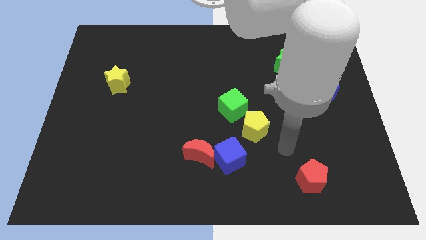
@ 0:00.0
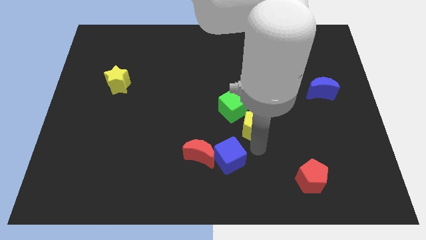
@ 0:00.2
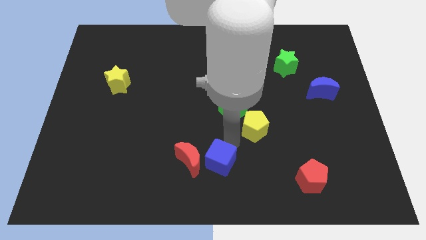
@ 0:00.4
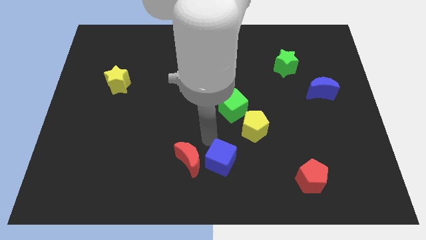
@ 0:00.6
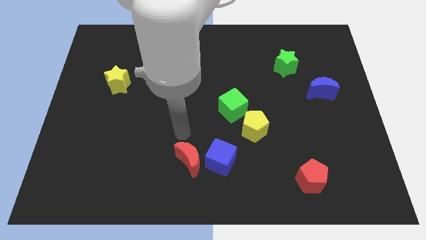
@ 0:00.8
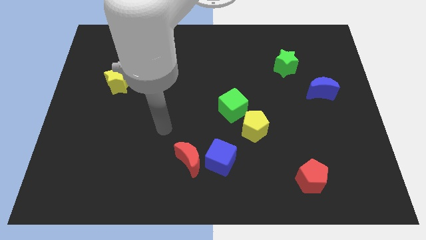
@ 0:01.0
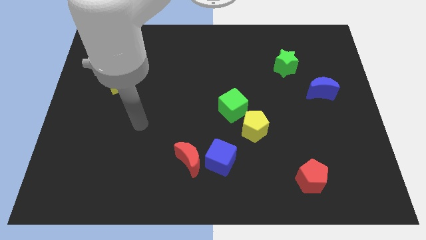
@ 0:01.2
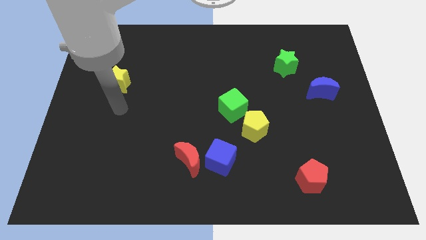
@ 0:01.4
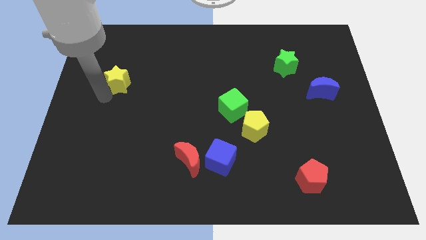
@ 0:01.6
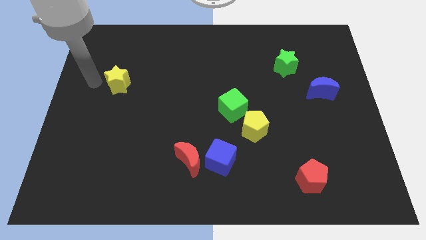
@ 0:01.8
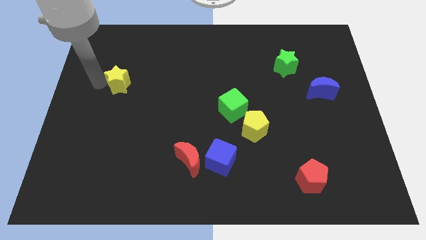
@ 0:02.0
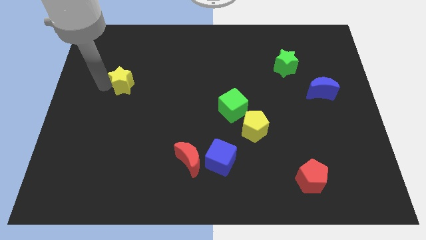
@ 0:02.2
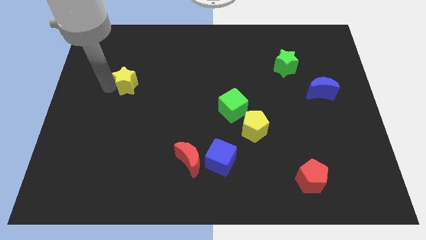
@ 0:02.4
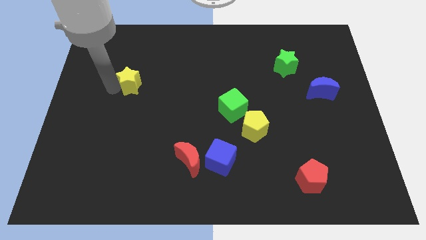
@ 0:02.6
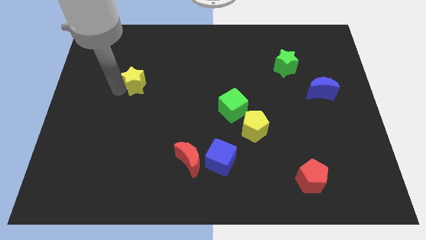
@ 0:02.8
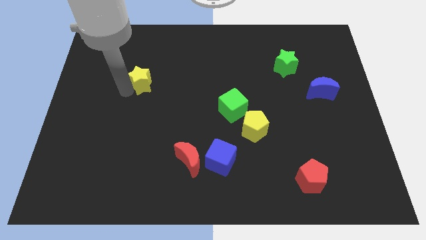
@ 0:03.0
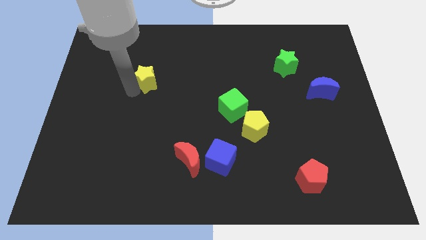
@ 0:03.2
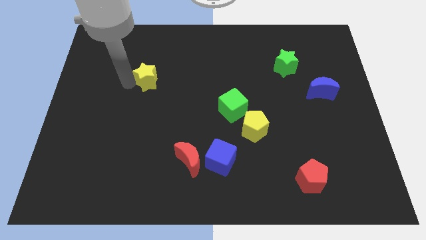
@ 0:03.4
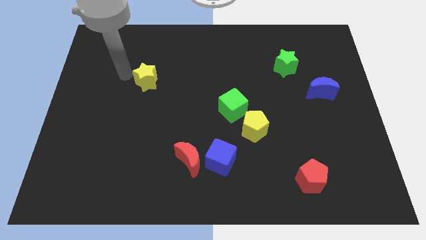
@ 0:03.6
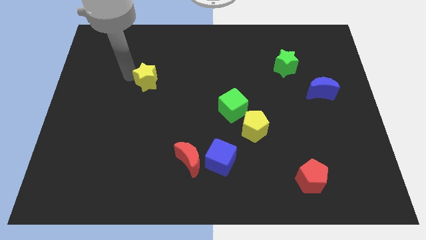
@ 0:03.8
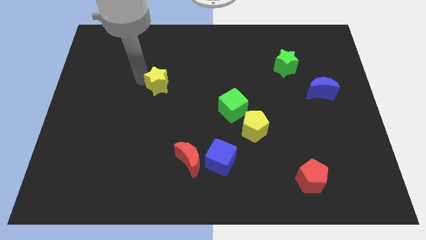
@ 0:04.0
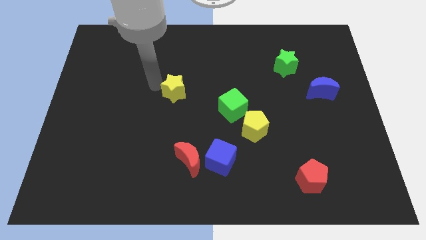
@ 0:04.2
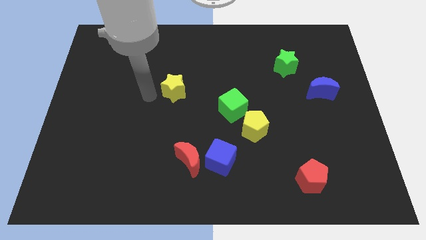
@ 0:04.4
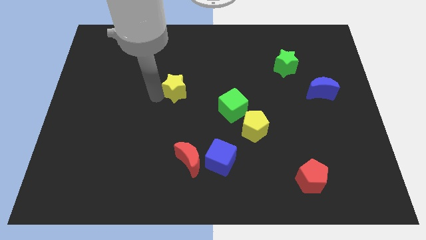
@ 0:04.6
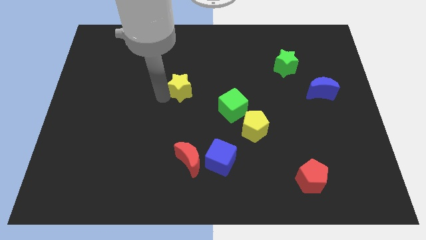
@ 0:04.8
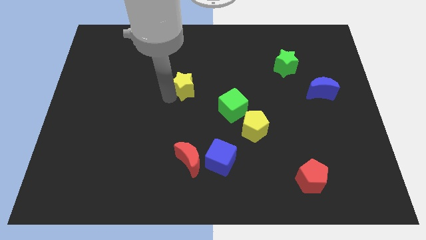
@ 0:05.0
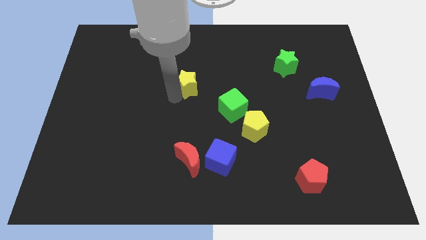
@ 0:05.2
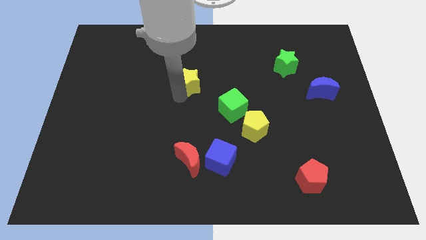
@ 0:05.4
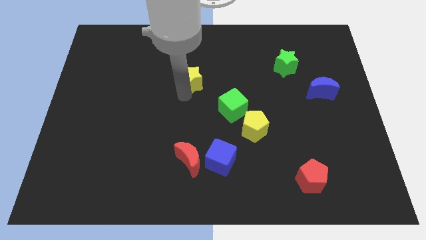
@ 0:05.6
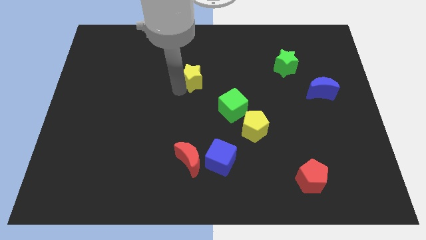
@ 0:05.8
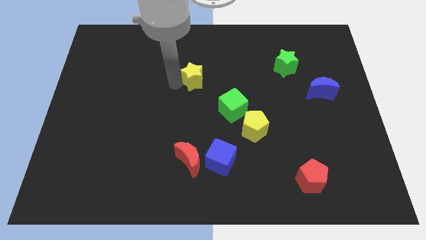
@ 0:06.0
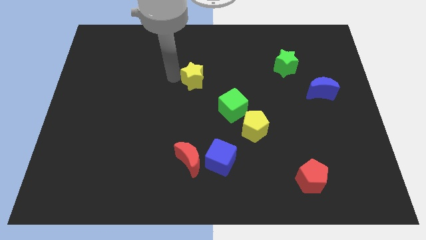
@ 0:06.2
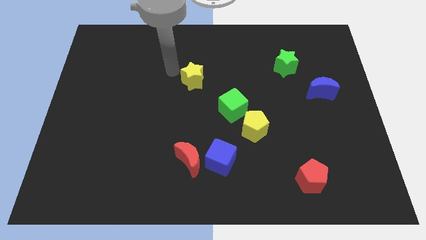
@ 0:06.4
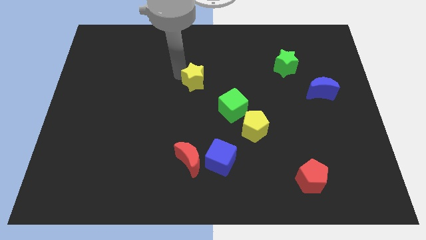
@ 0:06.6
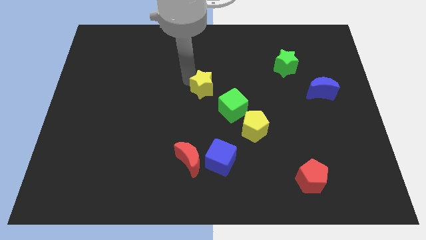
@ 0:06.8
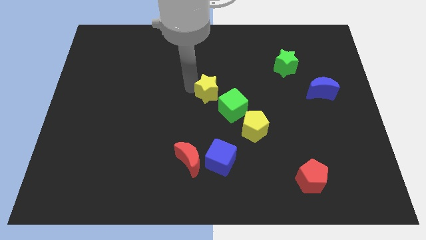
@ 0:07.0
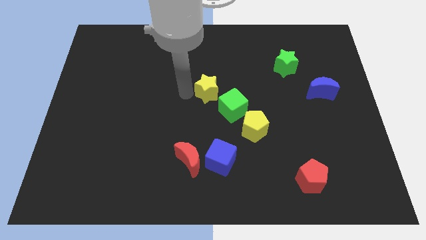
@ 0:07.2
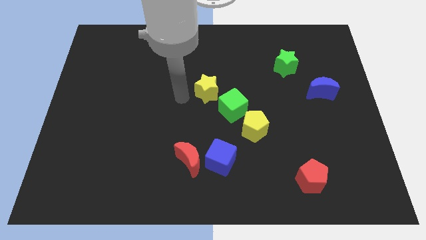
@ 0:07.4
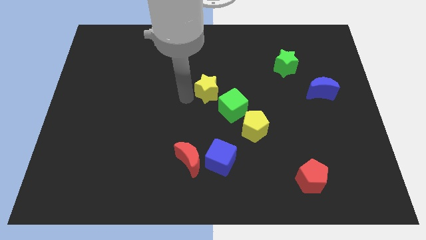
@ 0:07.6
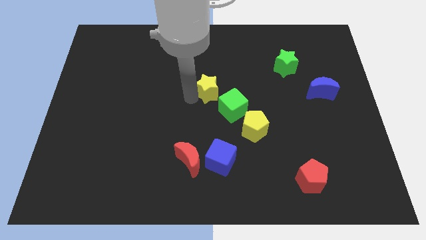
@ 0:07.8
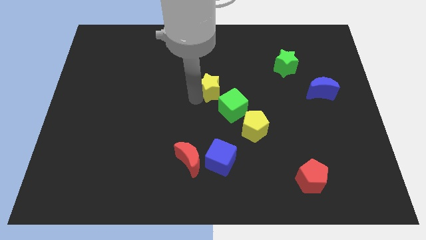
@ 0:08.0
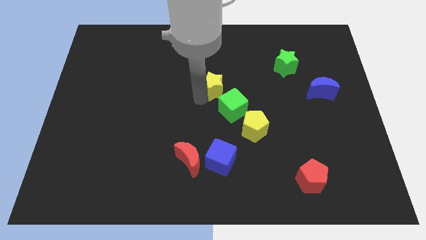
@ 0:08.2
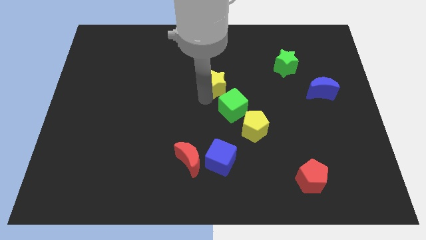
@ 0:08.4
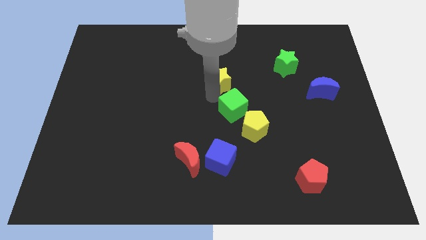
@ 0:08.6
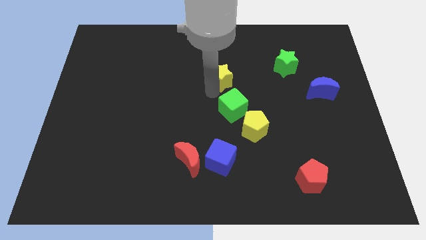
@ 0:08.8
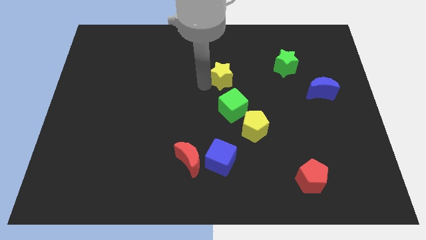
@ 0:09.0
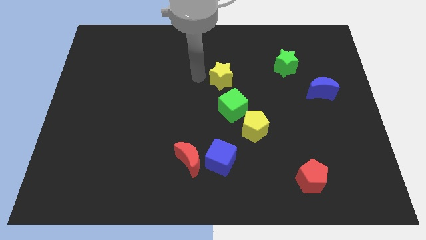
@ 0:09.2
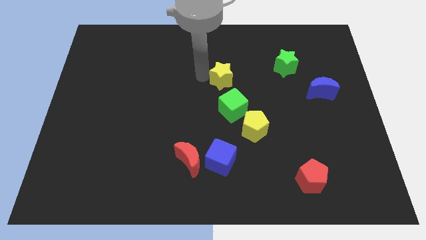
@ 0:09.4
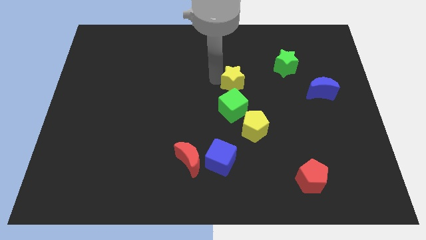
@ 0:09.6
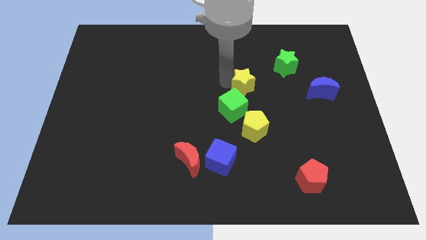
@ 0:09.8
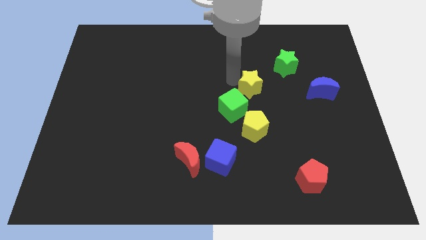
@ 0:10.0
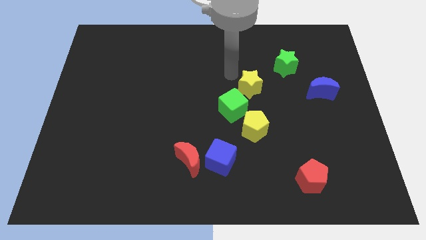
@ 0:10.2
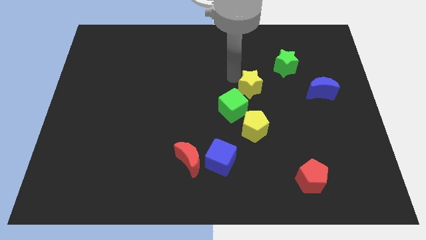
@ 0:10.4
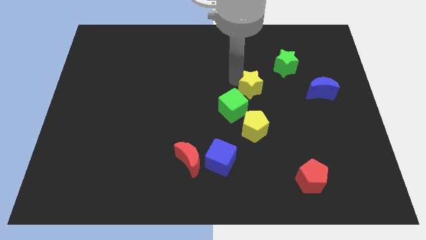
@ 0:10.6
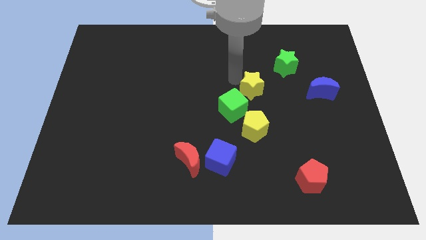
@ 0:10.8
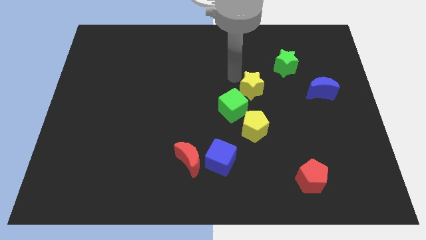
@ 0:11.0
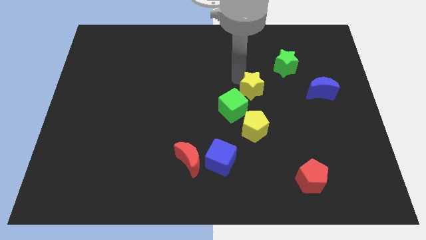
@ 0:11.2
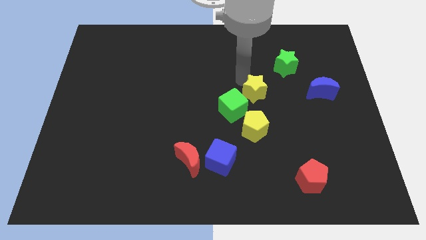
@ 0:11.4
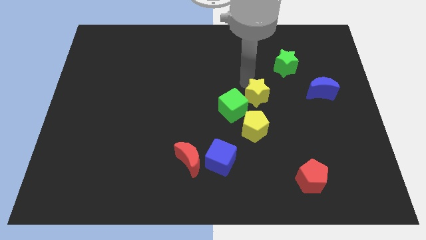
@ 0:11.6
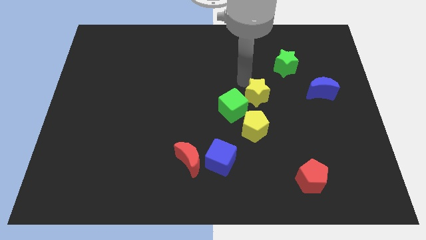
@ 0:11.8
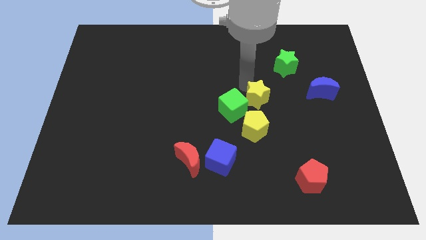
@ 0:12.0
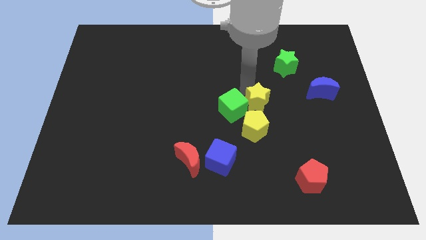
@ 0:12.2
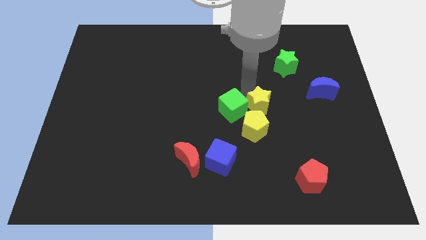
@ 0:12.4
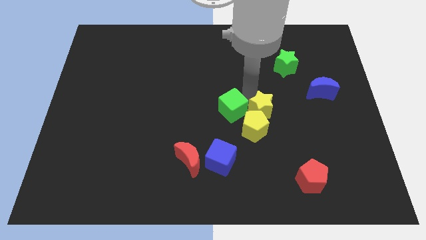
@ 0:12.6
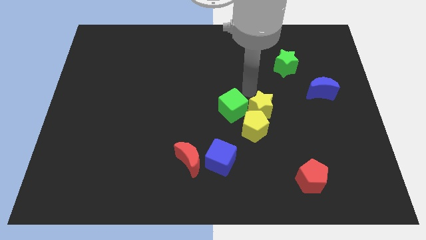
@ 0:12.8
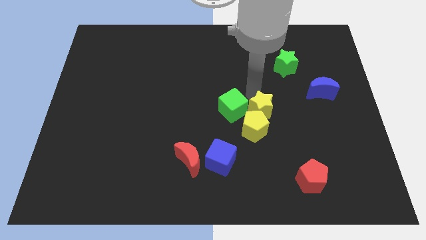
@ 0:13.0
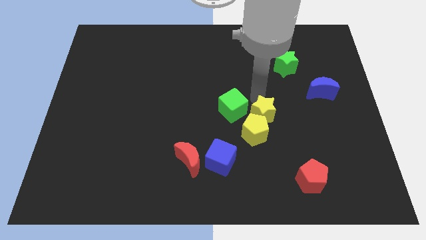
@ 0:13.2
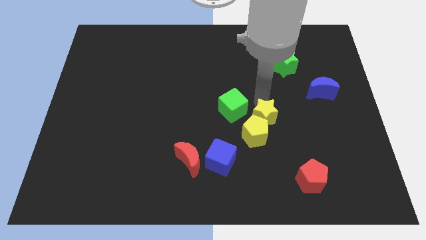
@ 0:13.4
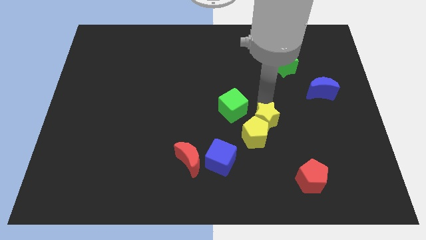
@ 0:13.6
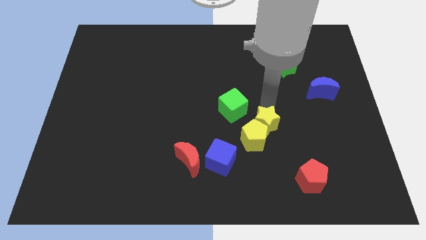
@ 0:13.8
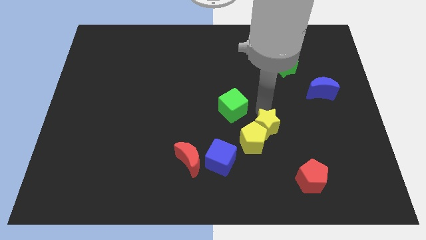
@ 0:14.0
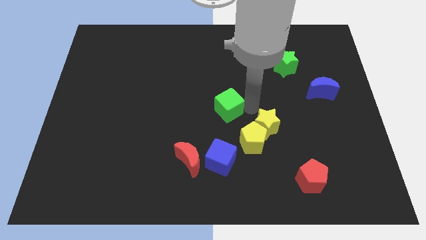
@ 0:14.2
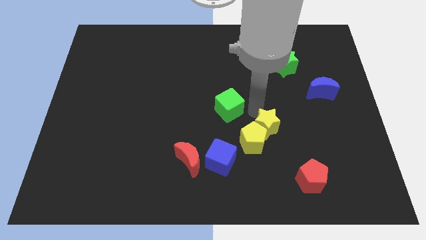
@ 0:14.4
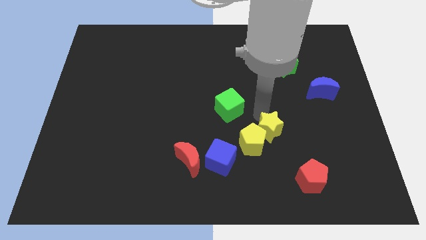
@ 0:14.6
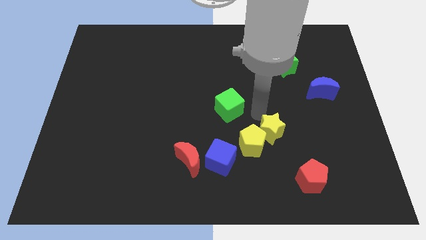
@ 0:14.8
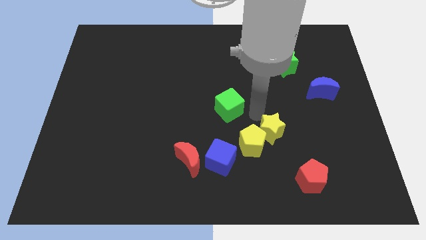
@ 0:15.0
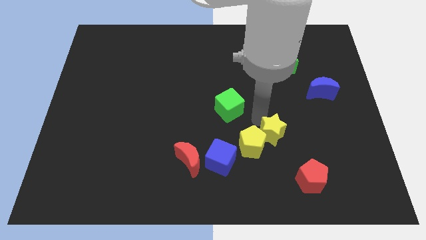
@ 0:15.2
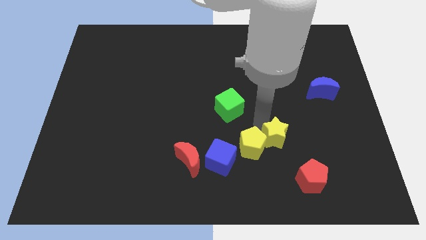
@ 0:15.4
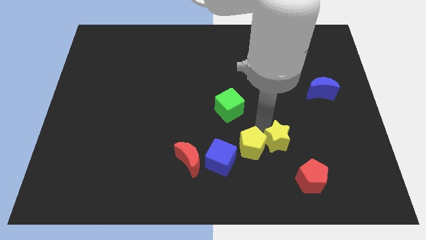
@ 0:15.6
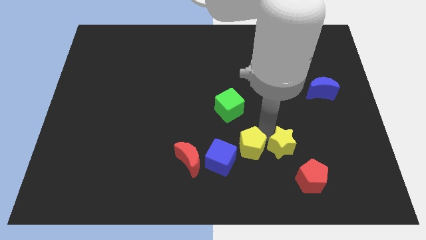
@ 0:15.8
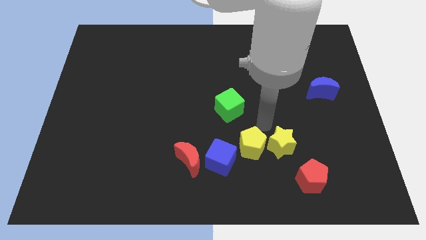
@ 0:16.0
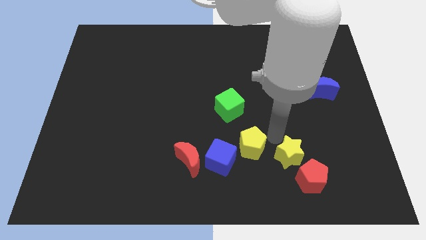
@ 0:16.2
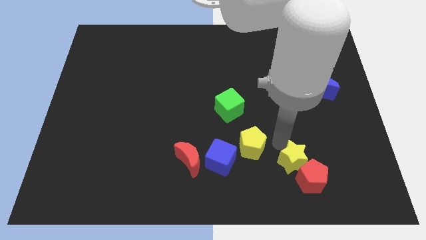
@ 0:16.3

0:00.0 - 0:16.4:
slide the yellow star next to the red pentagon
